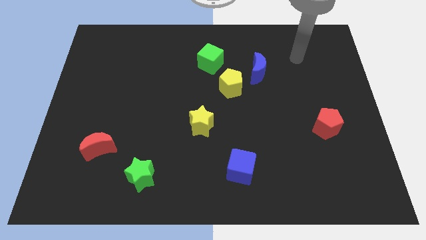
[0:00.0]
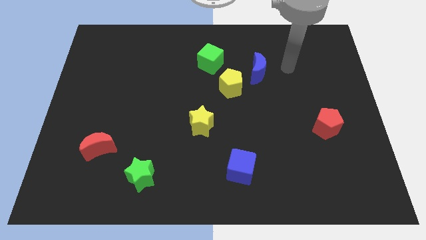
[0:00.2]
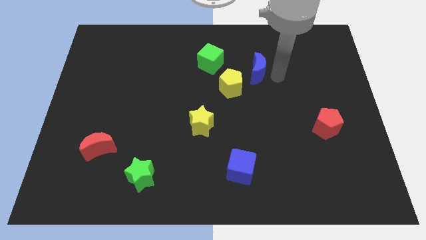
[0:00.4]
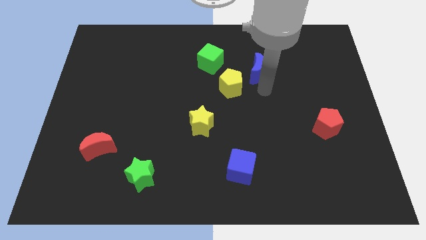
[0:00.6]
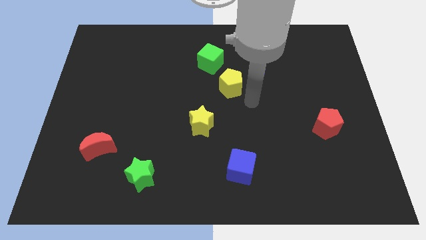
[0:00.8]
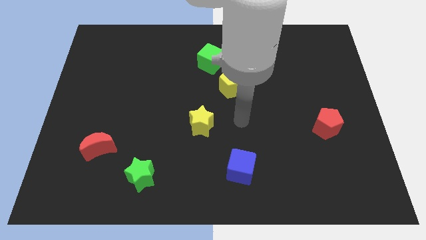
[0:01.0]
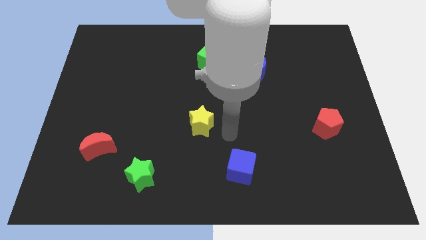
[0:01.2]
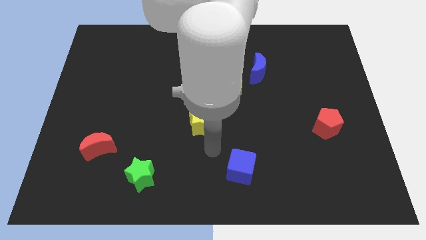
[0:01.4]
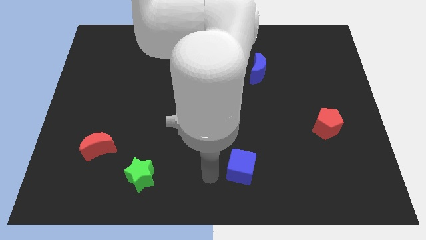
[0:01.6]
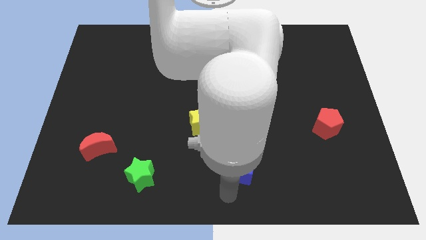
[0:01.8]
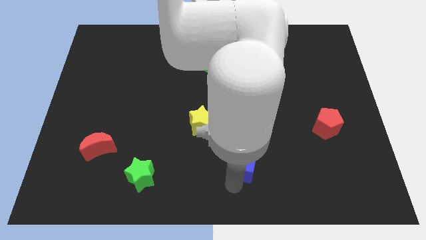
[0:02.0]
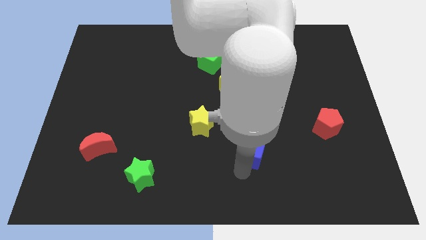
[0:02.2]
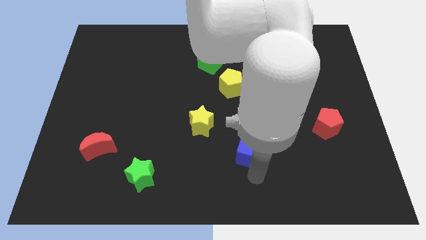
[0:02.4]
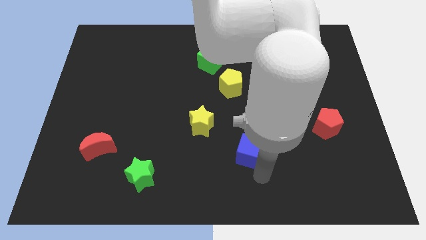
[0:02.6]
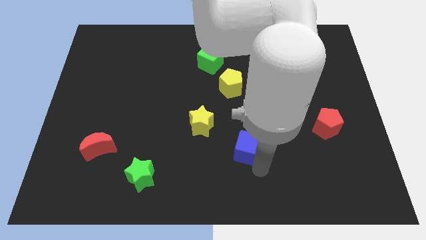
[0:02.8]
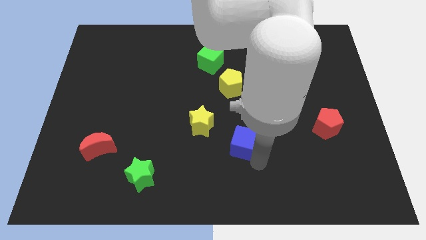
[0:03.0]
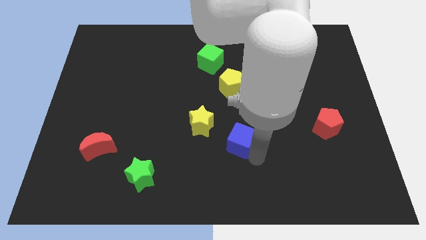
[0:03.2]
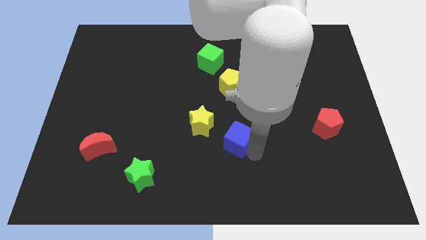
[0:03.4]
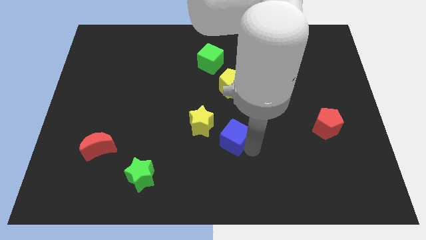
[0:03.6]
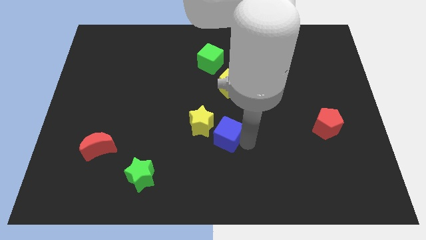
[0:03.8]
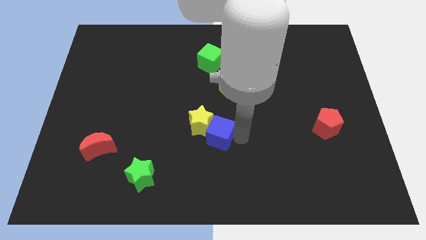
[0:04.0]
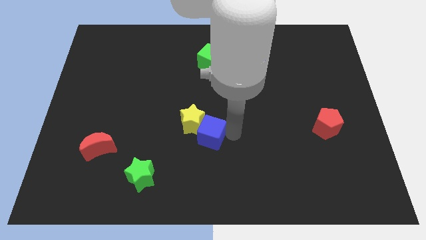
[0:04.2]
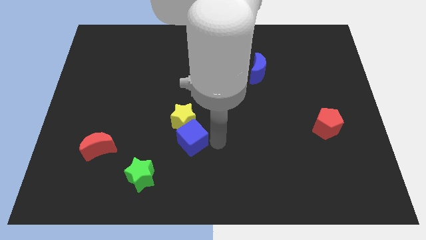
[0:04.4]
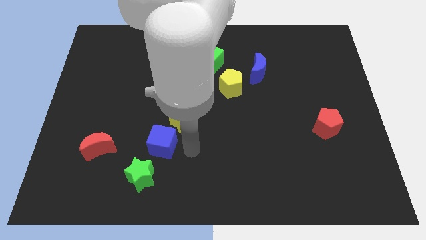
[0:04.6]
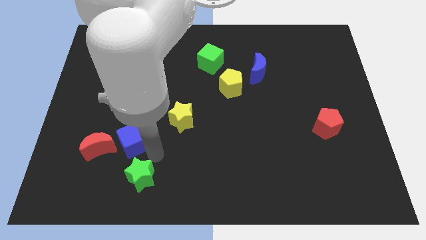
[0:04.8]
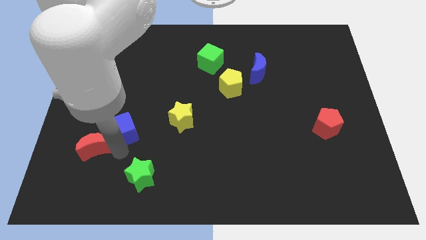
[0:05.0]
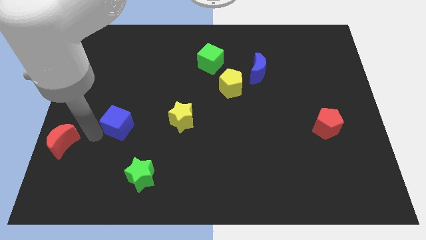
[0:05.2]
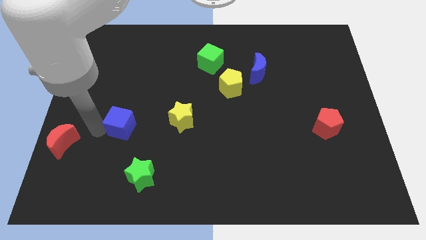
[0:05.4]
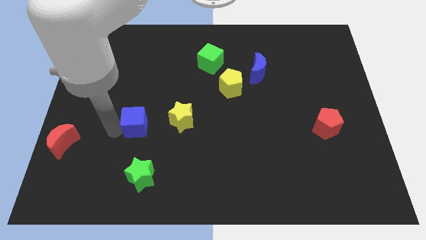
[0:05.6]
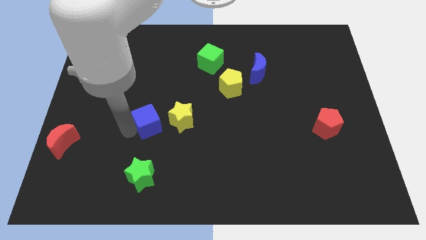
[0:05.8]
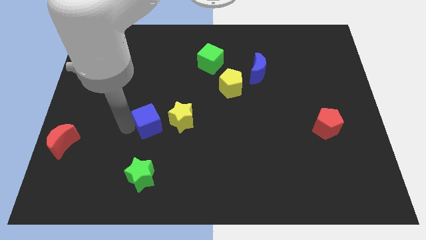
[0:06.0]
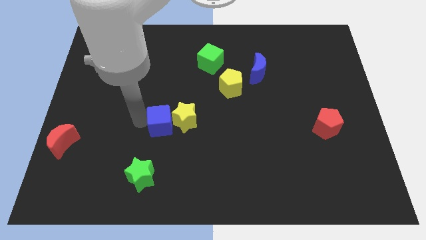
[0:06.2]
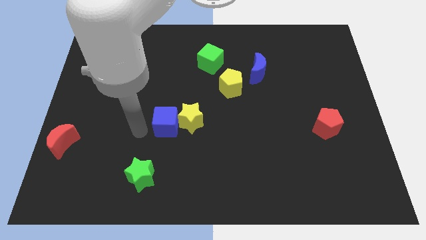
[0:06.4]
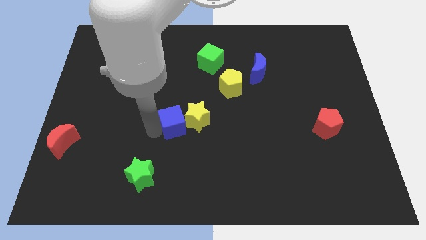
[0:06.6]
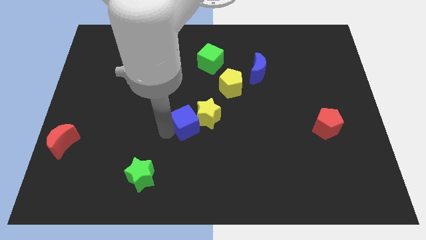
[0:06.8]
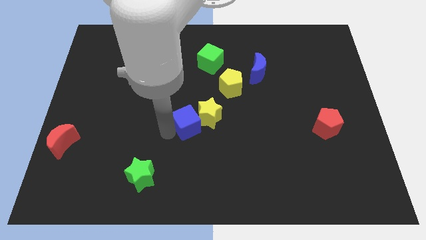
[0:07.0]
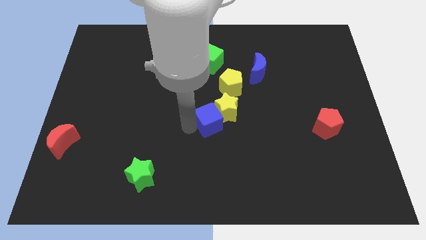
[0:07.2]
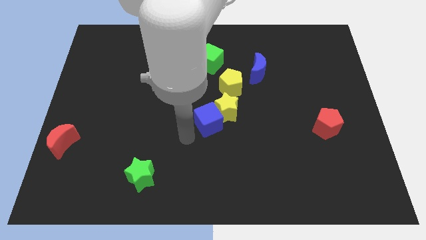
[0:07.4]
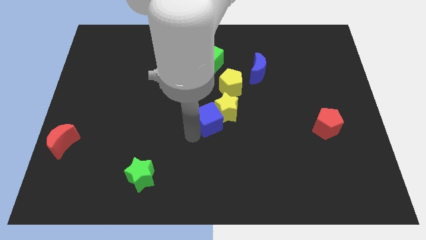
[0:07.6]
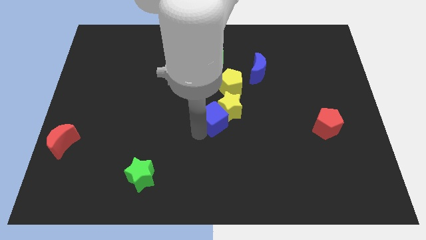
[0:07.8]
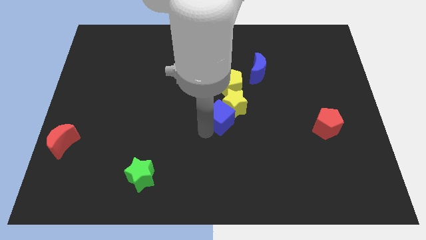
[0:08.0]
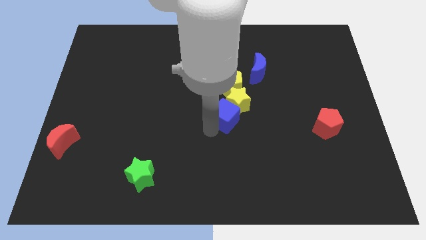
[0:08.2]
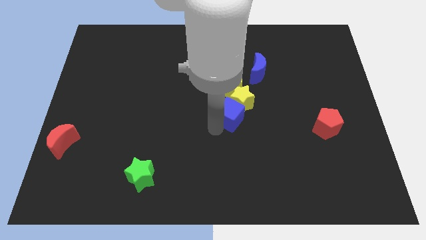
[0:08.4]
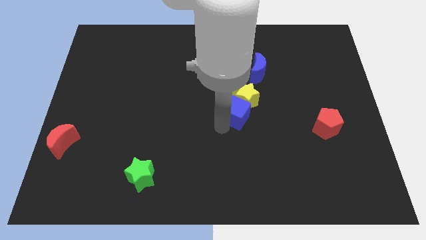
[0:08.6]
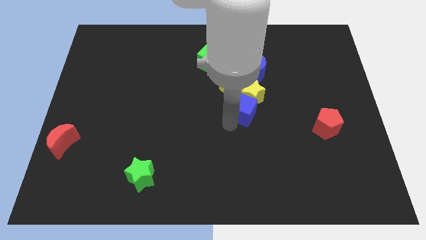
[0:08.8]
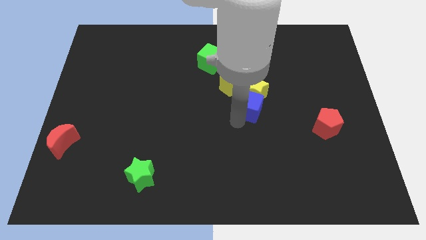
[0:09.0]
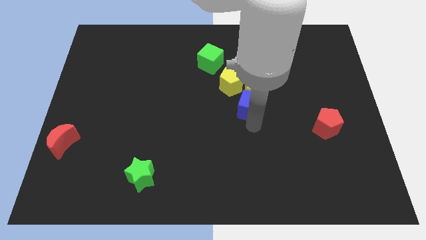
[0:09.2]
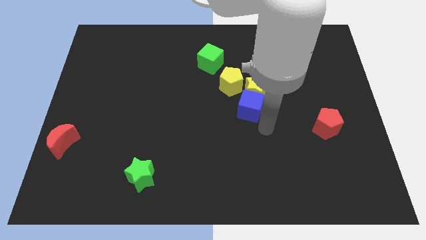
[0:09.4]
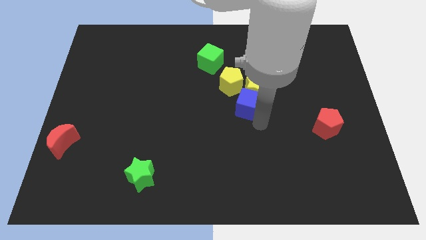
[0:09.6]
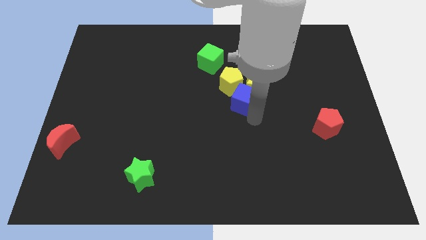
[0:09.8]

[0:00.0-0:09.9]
move the blue cube close to the yellow pentagon

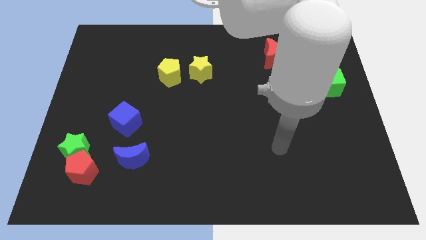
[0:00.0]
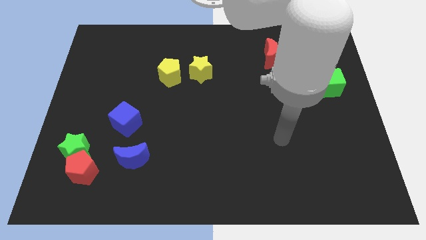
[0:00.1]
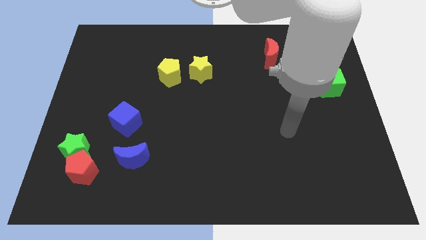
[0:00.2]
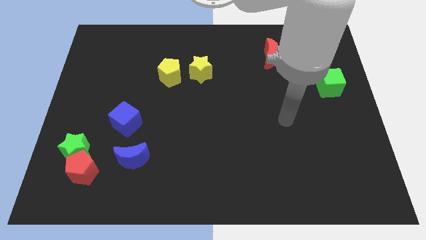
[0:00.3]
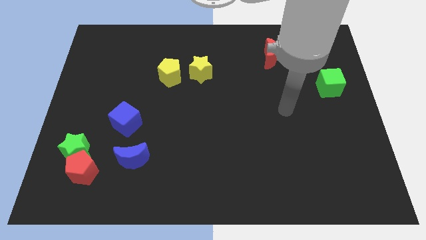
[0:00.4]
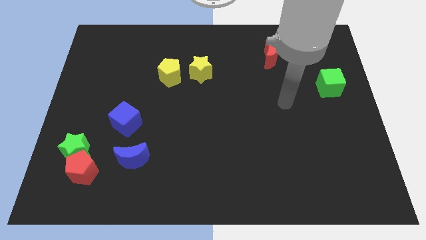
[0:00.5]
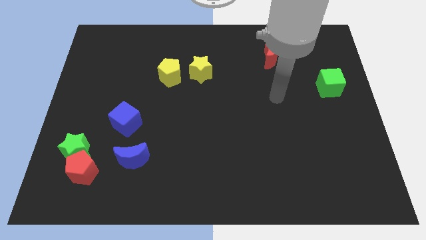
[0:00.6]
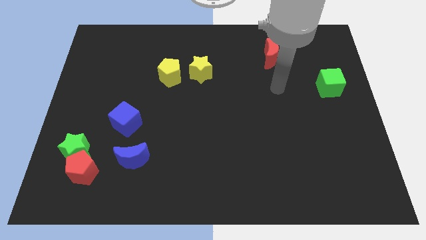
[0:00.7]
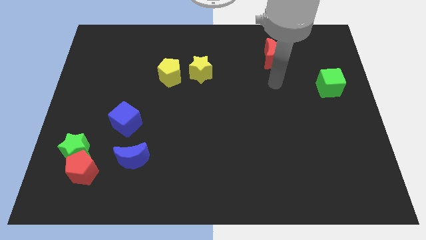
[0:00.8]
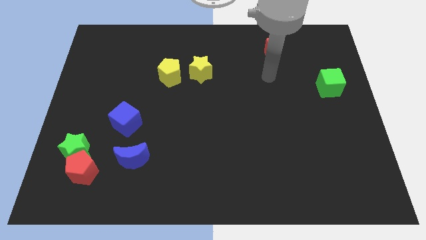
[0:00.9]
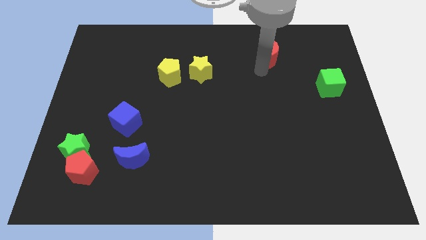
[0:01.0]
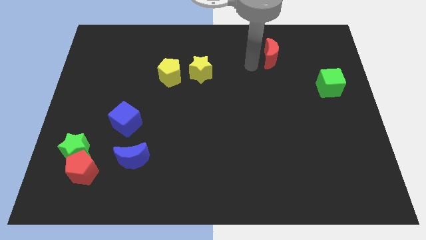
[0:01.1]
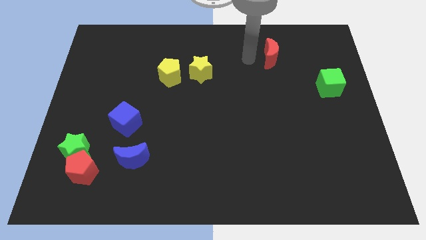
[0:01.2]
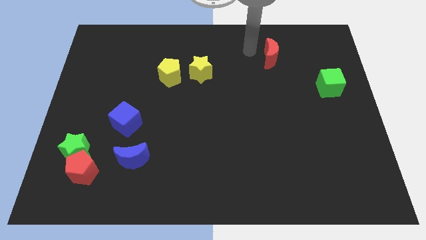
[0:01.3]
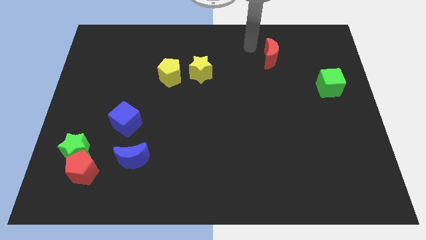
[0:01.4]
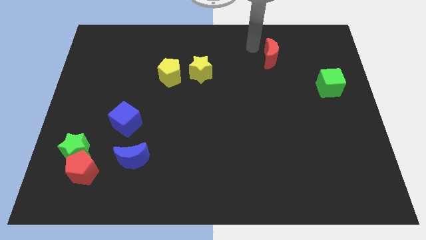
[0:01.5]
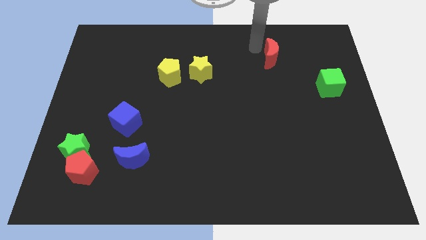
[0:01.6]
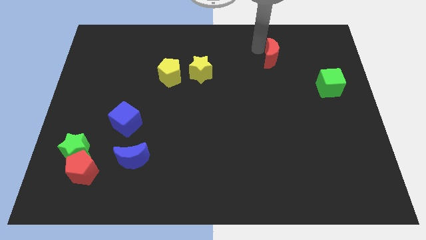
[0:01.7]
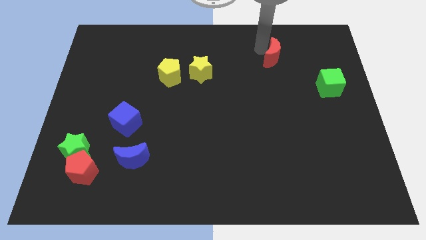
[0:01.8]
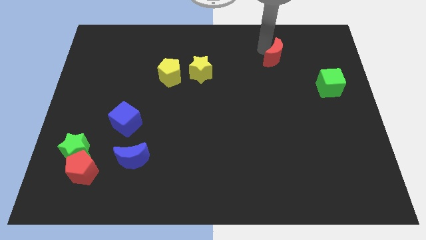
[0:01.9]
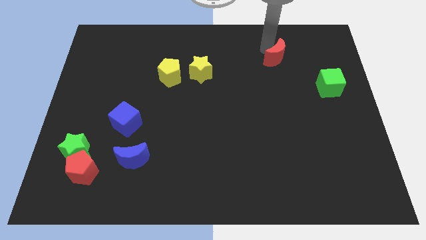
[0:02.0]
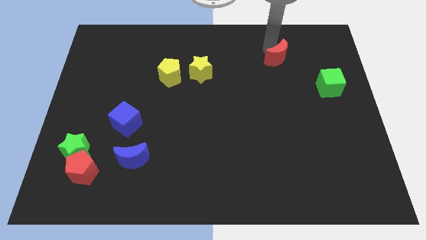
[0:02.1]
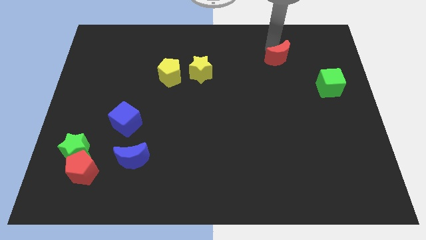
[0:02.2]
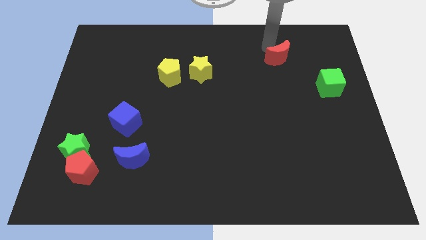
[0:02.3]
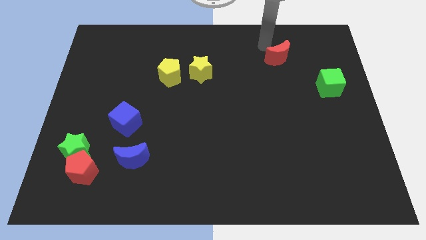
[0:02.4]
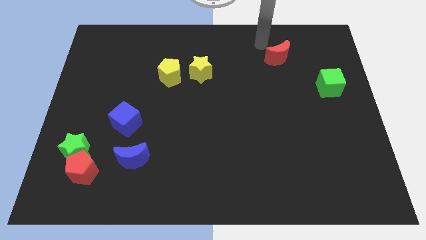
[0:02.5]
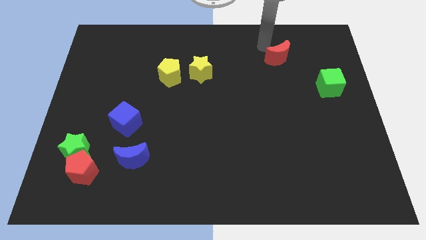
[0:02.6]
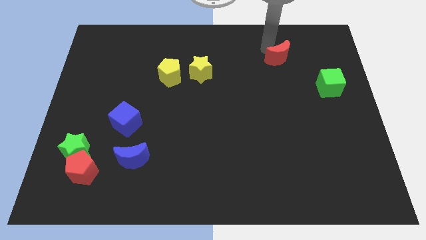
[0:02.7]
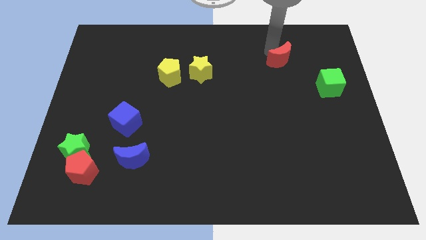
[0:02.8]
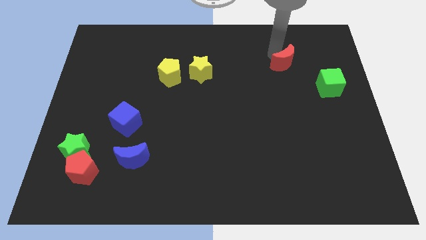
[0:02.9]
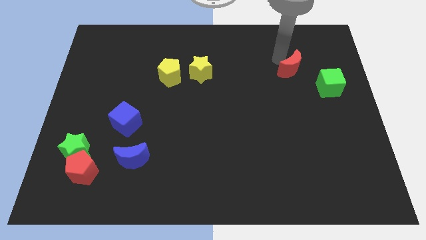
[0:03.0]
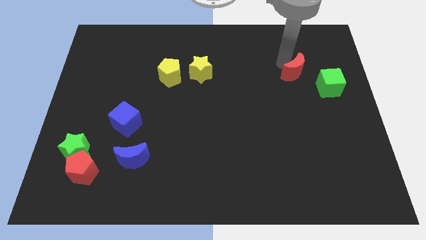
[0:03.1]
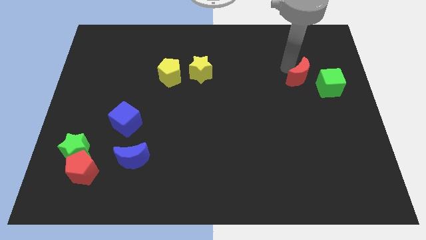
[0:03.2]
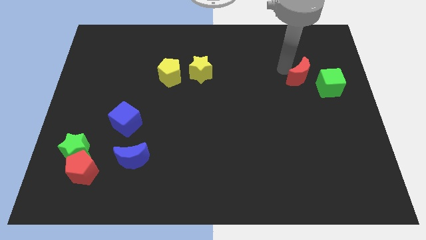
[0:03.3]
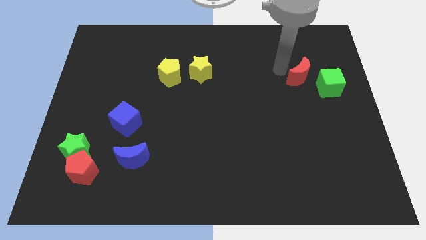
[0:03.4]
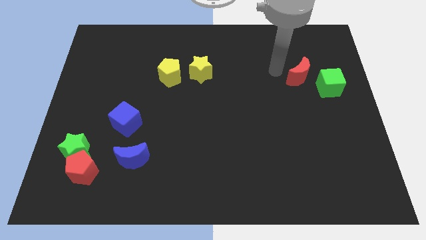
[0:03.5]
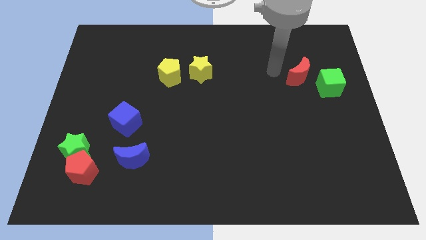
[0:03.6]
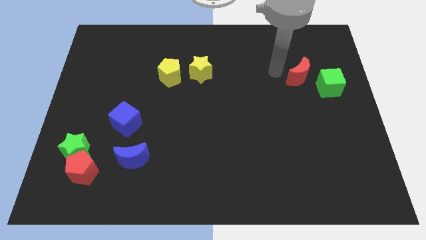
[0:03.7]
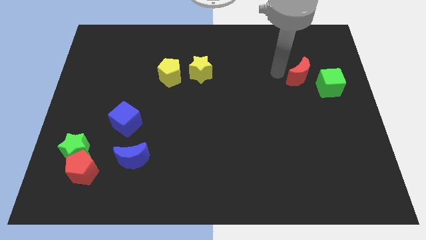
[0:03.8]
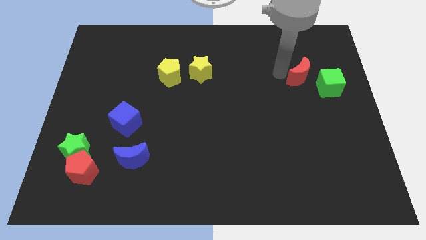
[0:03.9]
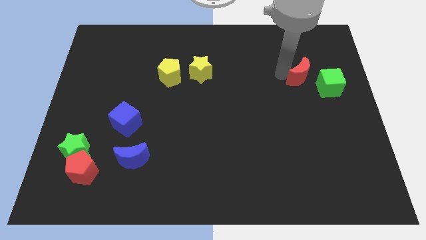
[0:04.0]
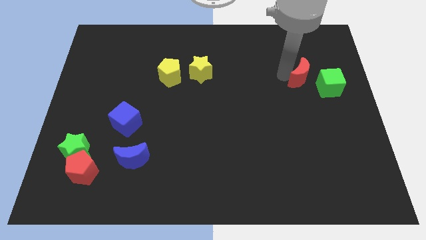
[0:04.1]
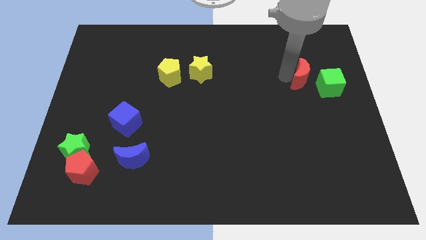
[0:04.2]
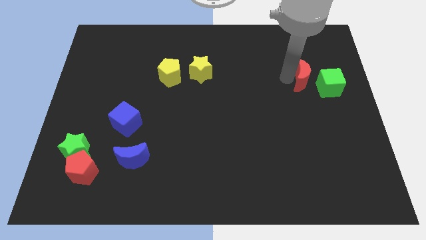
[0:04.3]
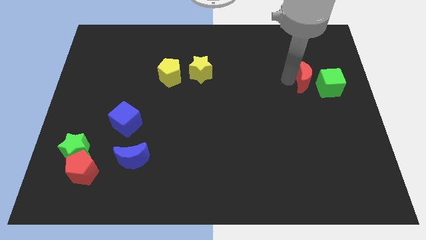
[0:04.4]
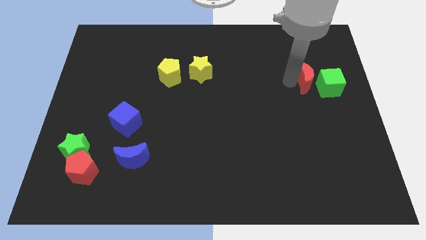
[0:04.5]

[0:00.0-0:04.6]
push the red moon to the green cube
